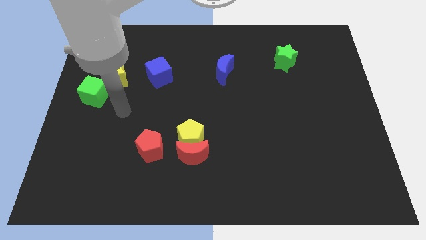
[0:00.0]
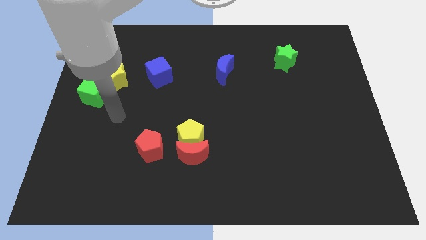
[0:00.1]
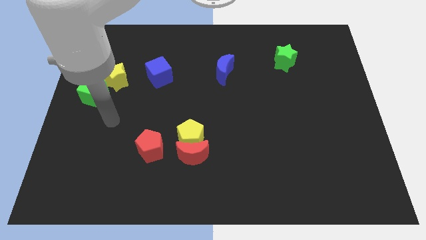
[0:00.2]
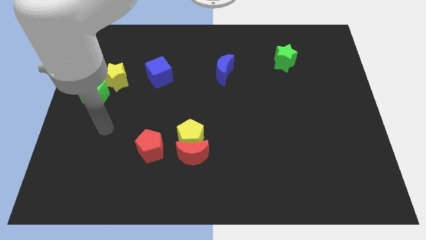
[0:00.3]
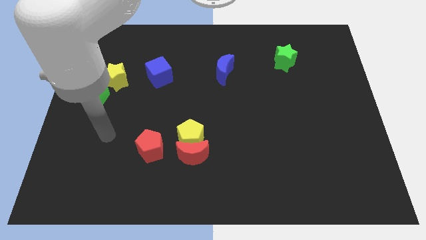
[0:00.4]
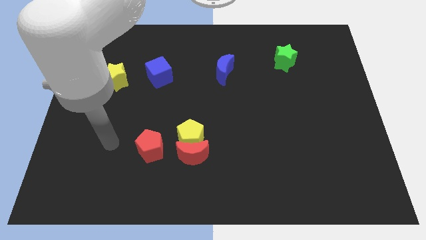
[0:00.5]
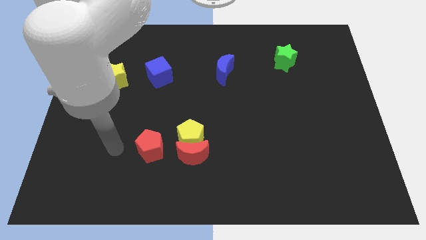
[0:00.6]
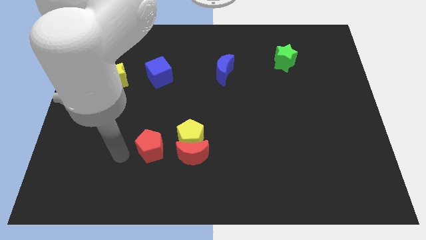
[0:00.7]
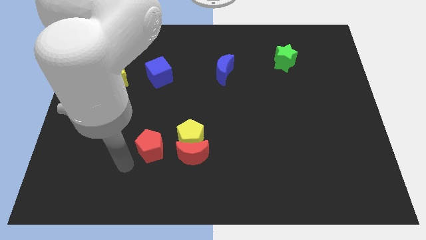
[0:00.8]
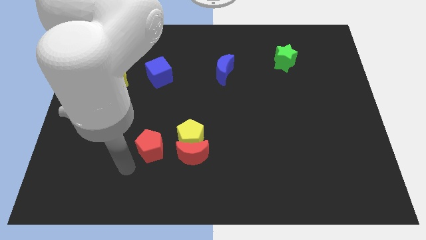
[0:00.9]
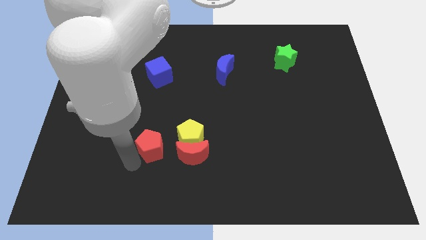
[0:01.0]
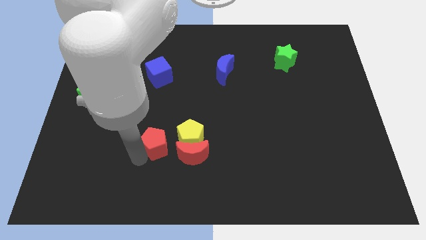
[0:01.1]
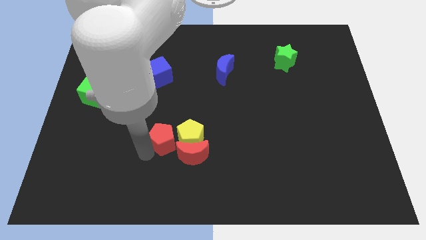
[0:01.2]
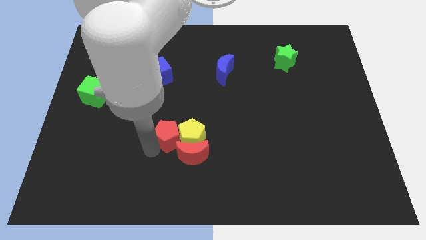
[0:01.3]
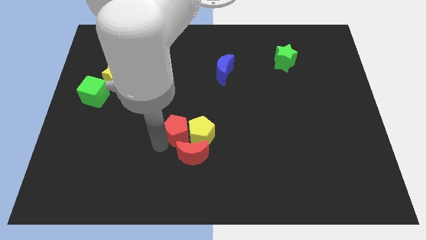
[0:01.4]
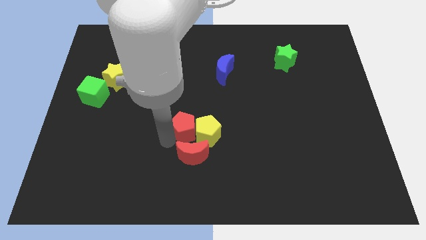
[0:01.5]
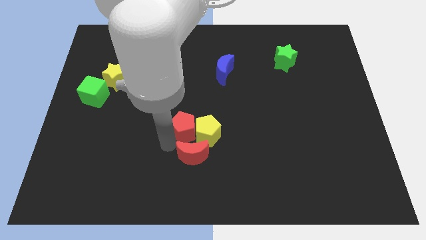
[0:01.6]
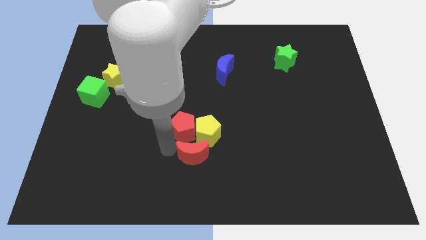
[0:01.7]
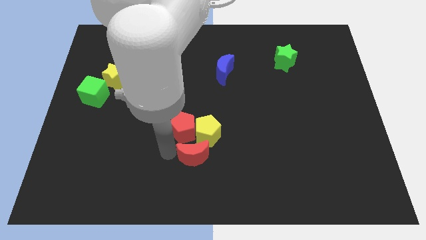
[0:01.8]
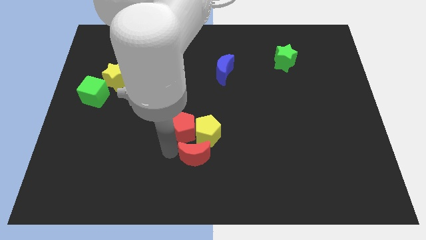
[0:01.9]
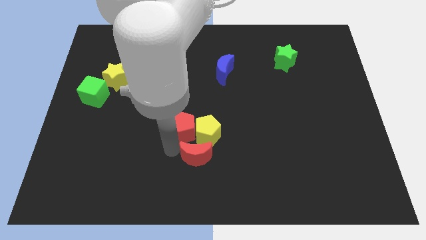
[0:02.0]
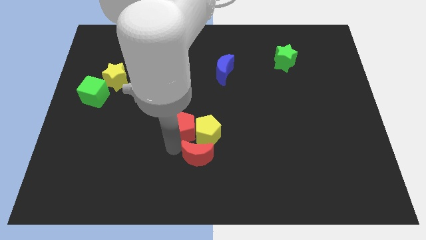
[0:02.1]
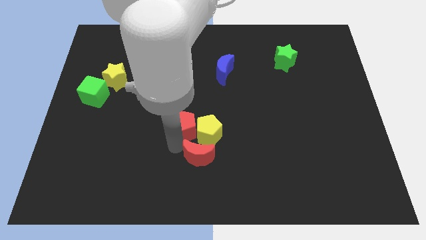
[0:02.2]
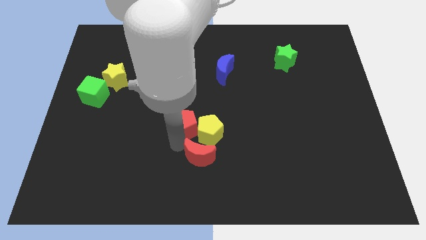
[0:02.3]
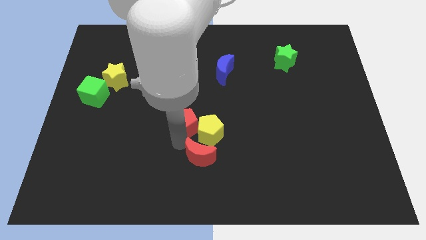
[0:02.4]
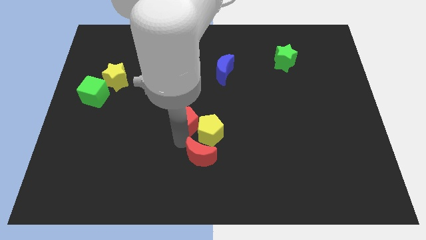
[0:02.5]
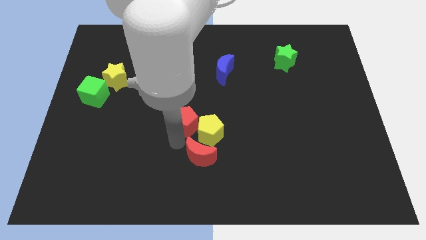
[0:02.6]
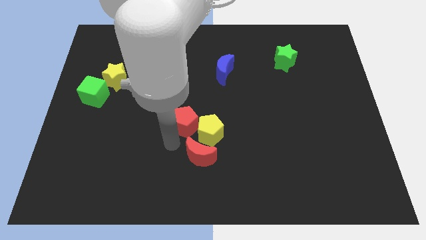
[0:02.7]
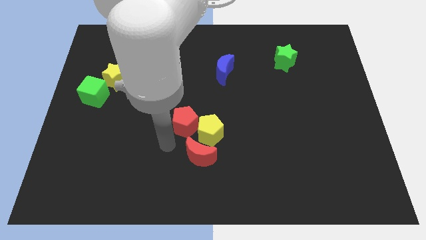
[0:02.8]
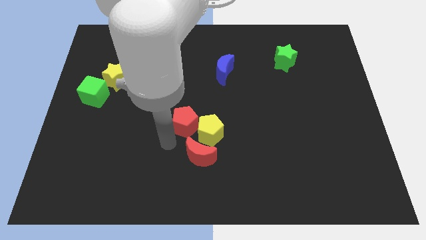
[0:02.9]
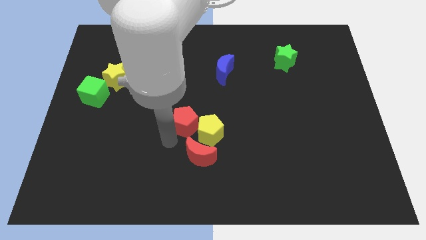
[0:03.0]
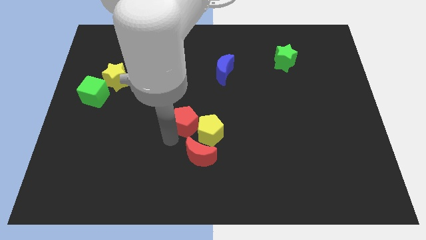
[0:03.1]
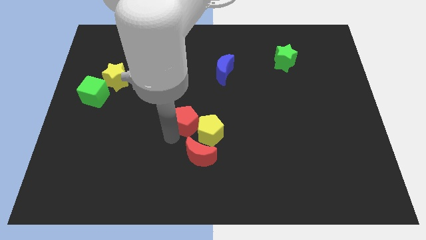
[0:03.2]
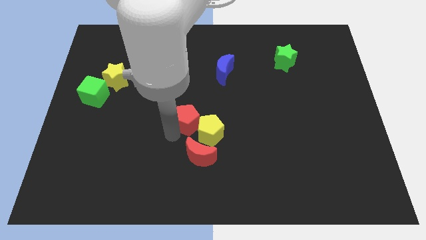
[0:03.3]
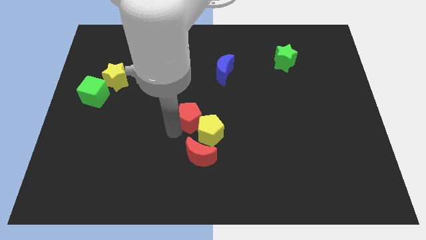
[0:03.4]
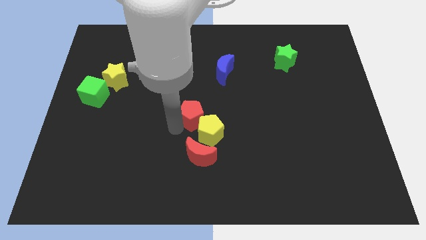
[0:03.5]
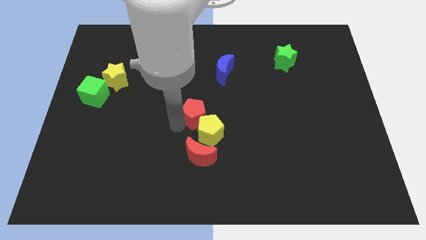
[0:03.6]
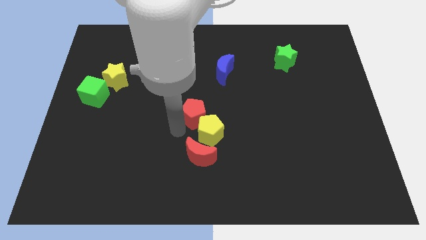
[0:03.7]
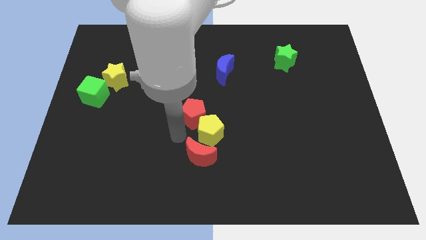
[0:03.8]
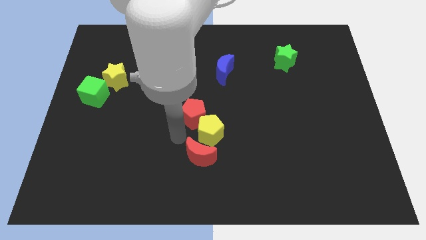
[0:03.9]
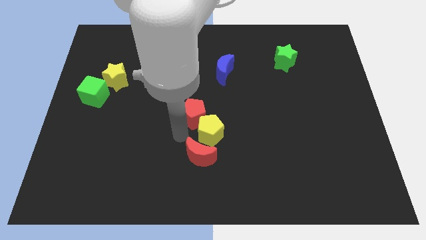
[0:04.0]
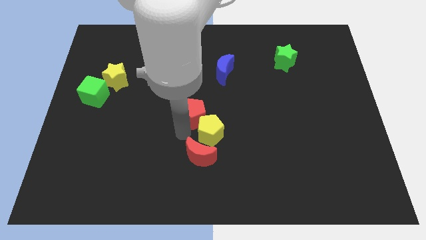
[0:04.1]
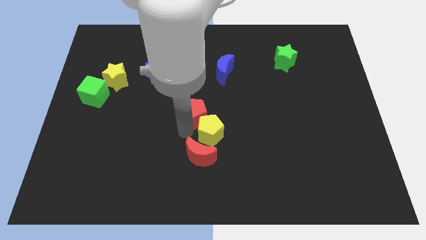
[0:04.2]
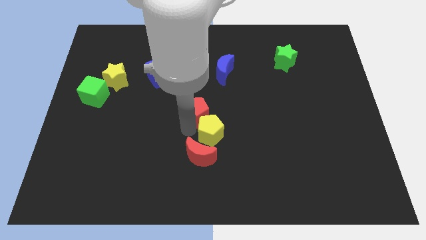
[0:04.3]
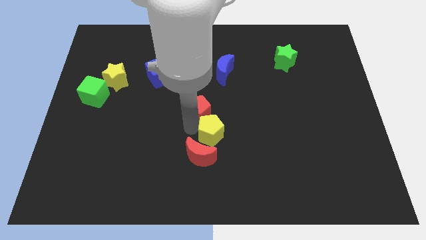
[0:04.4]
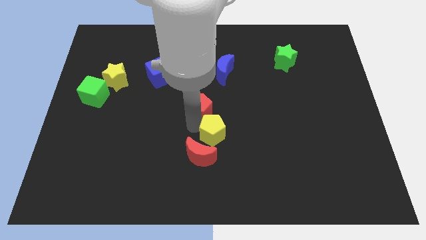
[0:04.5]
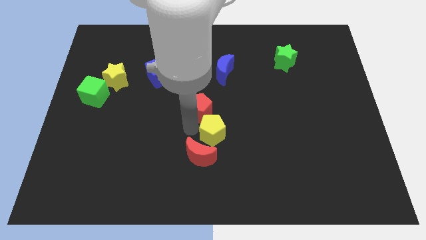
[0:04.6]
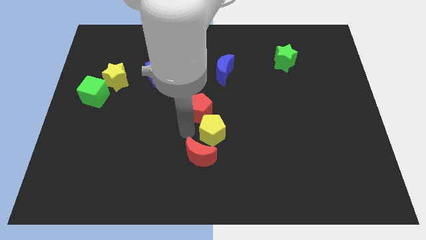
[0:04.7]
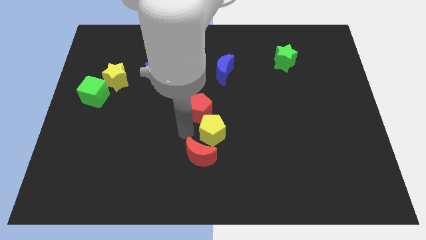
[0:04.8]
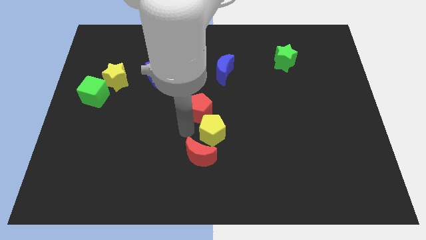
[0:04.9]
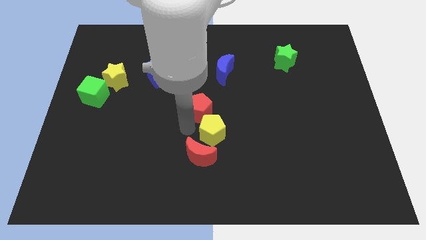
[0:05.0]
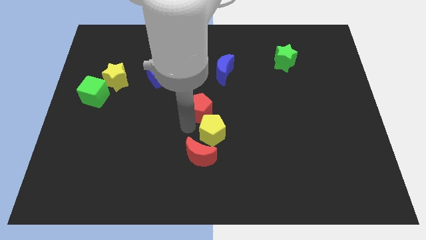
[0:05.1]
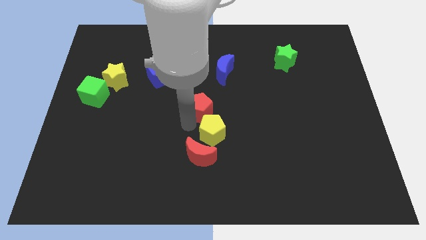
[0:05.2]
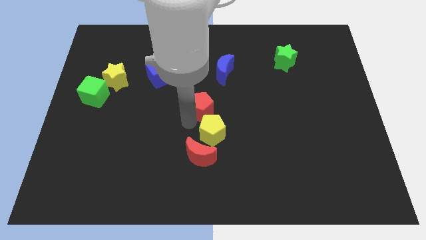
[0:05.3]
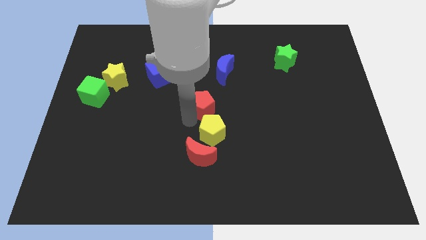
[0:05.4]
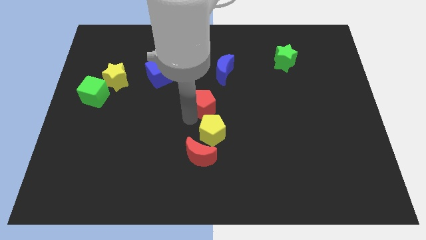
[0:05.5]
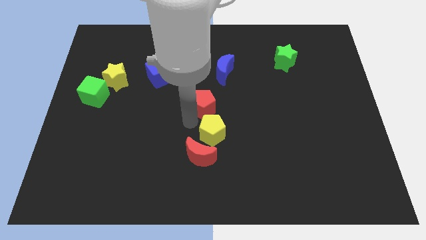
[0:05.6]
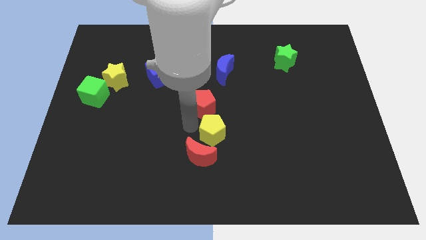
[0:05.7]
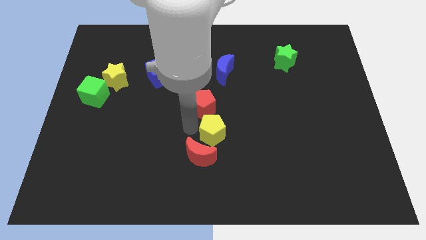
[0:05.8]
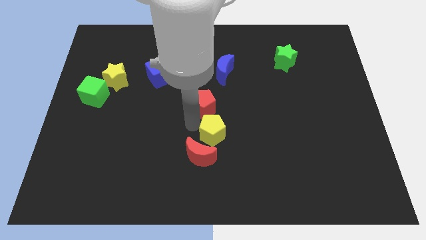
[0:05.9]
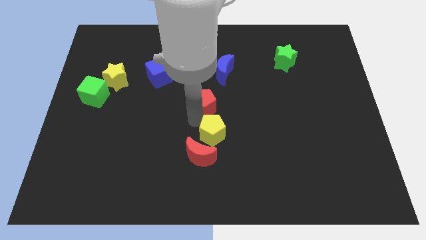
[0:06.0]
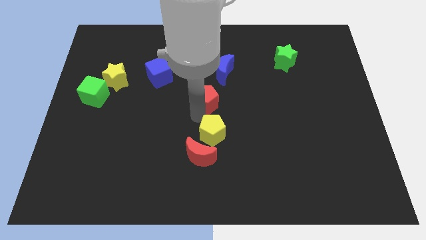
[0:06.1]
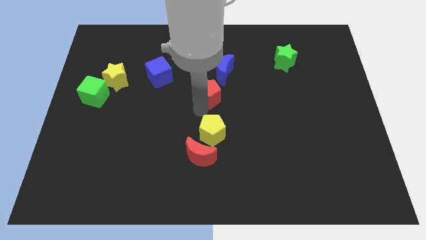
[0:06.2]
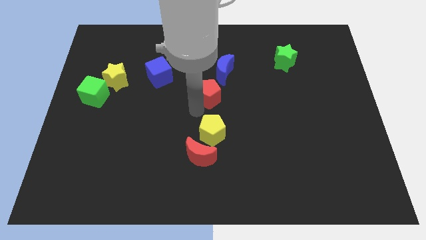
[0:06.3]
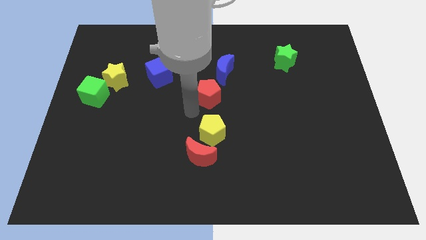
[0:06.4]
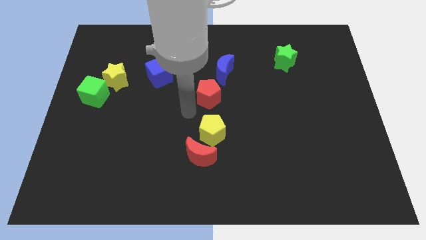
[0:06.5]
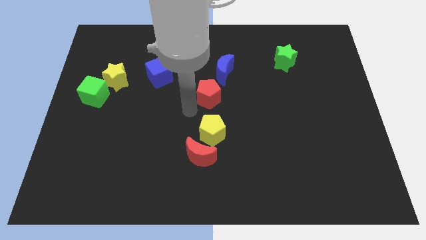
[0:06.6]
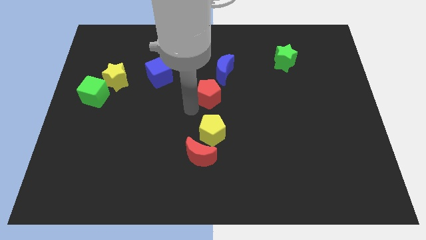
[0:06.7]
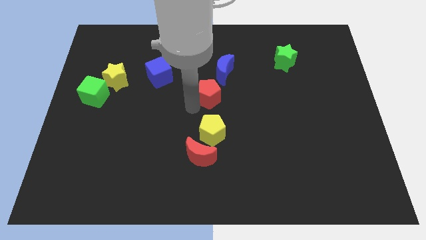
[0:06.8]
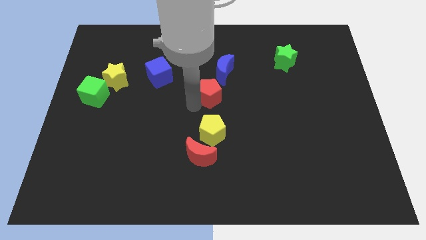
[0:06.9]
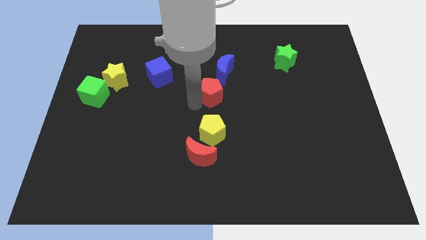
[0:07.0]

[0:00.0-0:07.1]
push the red pentagon up and right

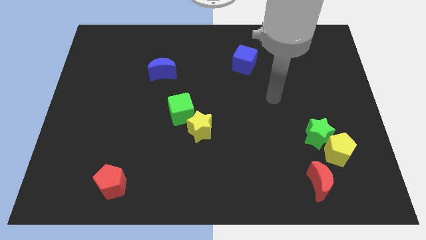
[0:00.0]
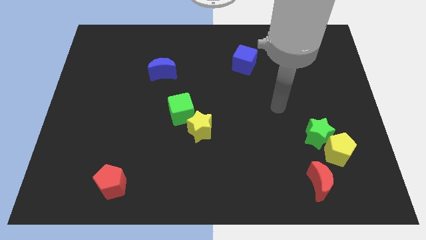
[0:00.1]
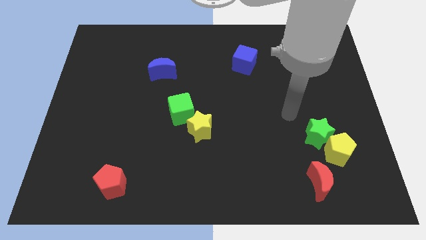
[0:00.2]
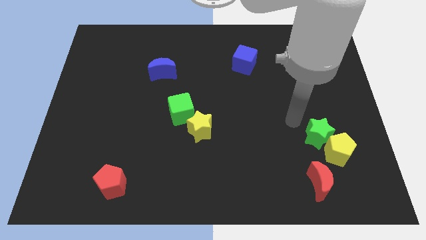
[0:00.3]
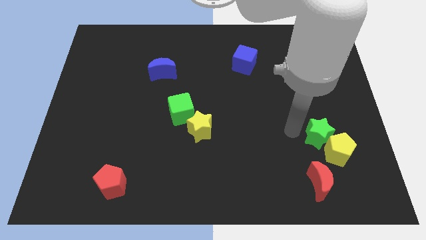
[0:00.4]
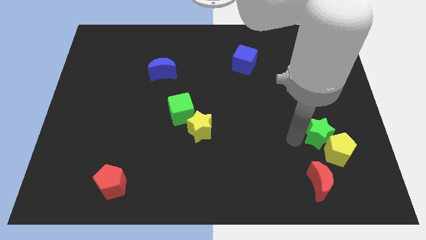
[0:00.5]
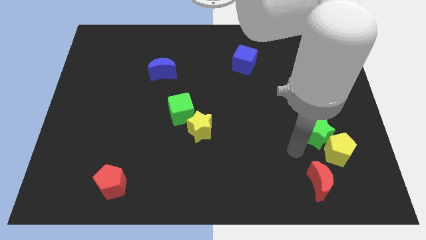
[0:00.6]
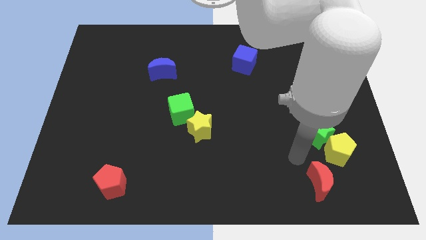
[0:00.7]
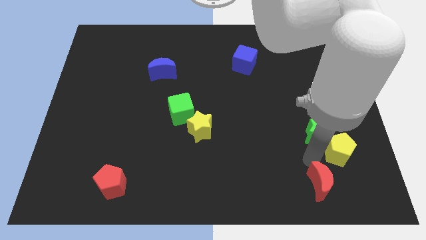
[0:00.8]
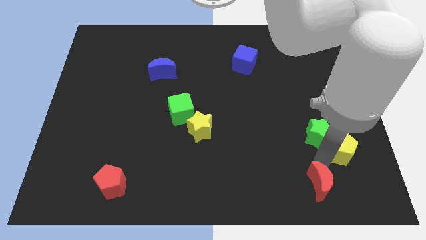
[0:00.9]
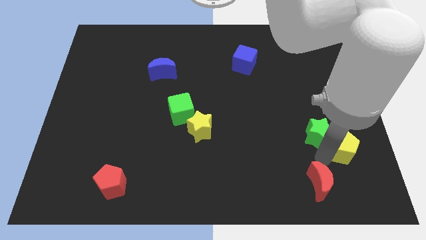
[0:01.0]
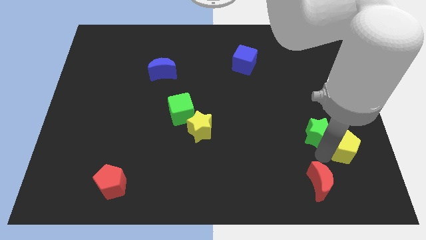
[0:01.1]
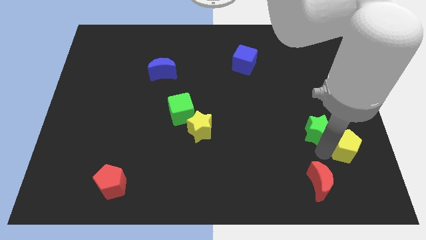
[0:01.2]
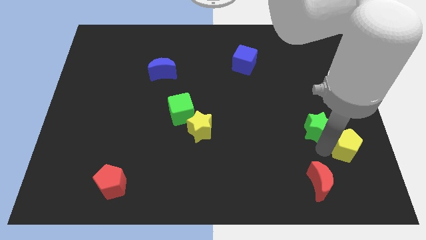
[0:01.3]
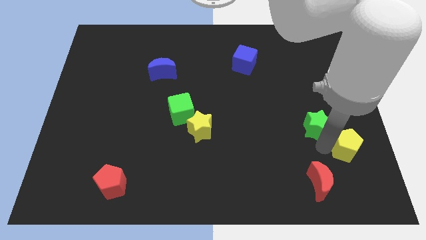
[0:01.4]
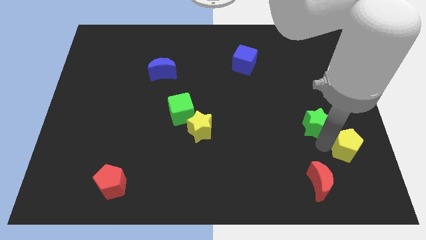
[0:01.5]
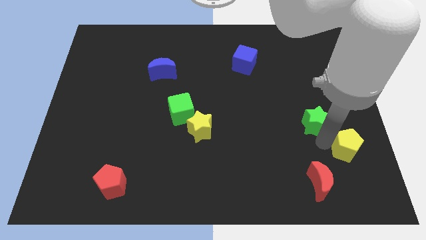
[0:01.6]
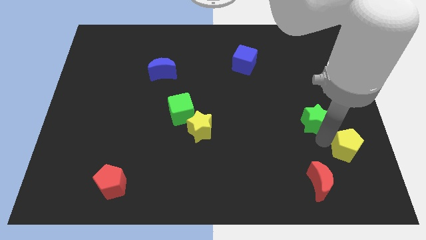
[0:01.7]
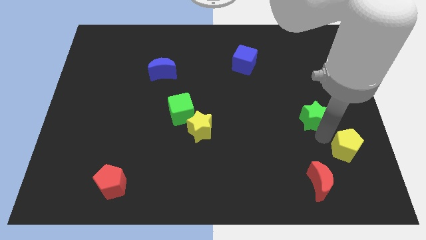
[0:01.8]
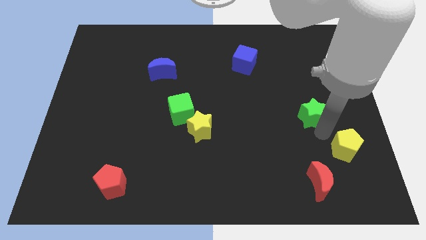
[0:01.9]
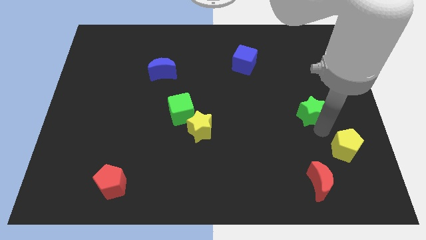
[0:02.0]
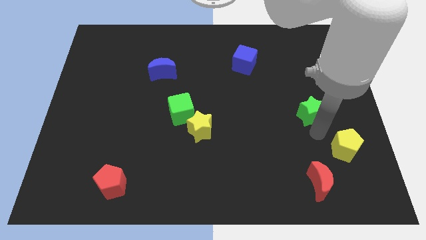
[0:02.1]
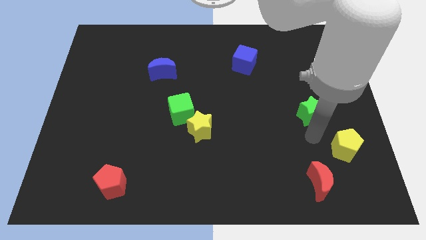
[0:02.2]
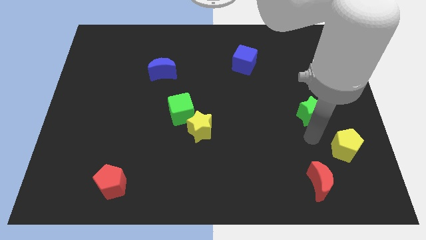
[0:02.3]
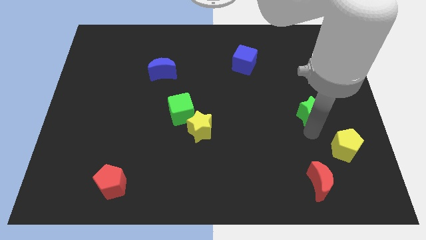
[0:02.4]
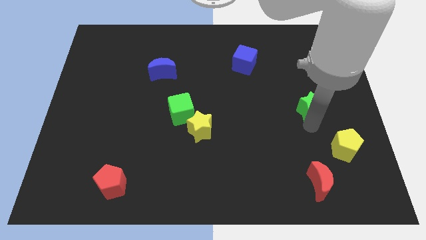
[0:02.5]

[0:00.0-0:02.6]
move the green star upwards a little bit
